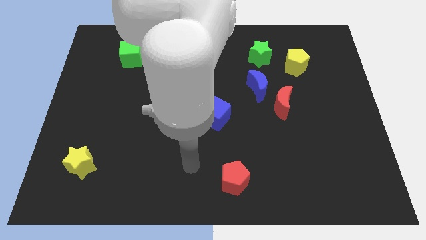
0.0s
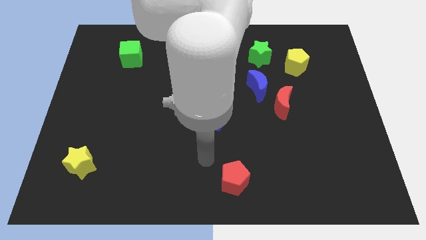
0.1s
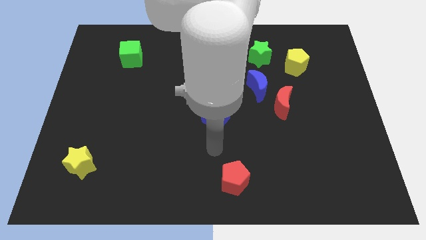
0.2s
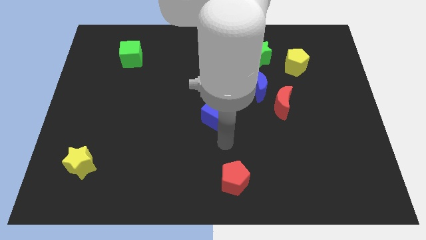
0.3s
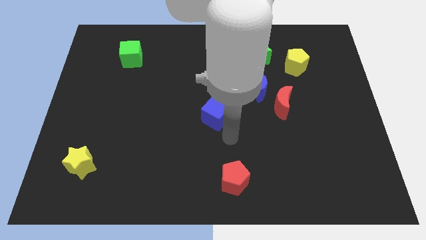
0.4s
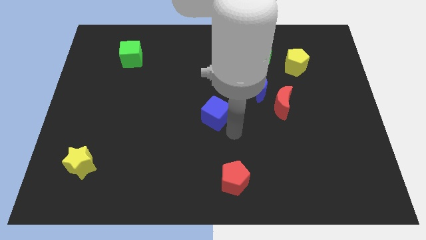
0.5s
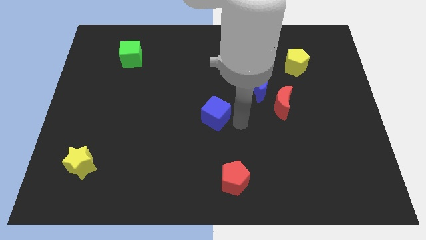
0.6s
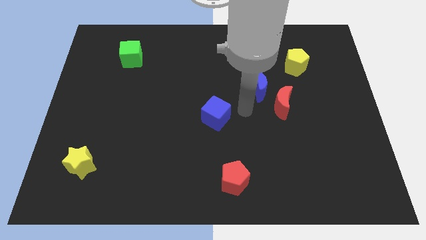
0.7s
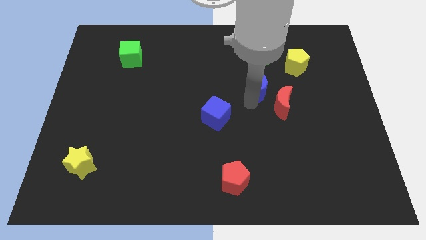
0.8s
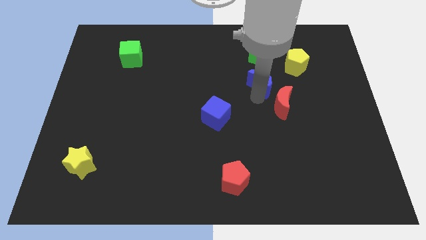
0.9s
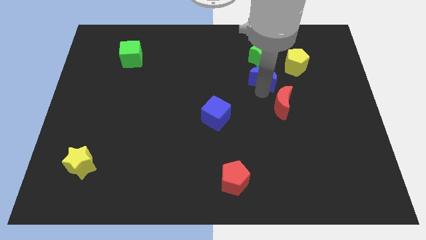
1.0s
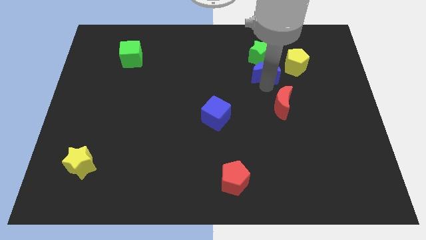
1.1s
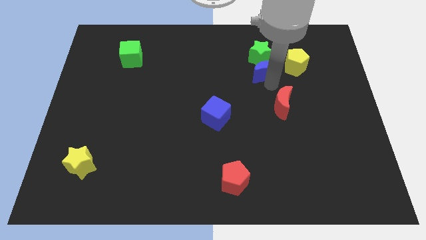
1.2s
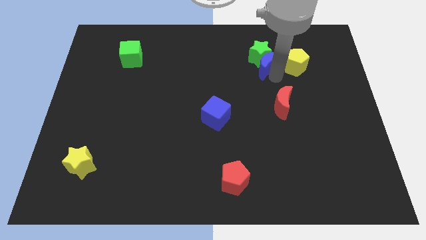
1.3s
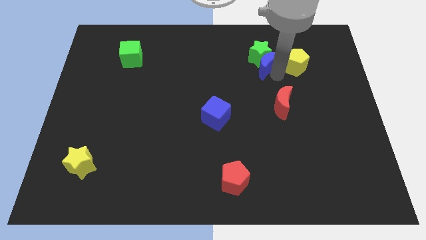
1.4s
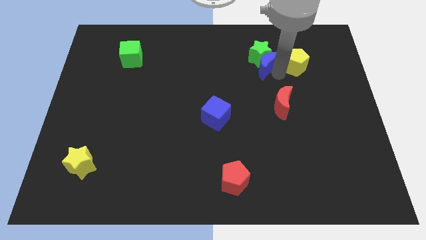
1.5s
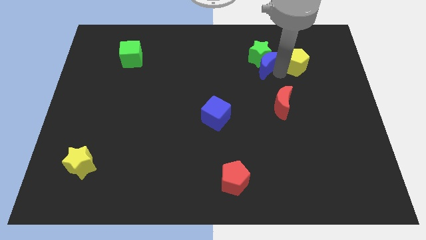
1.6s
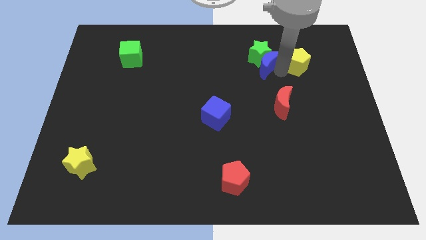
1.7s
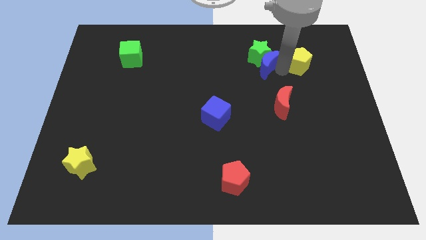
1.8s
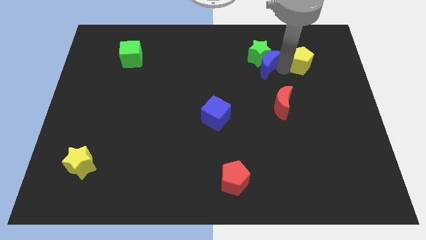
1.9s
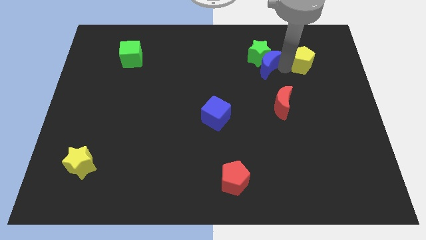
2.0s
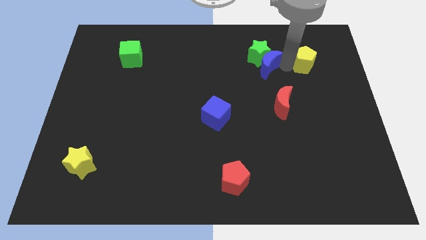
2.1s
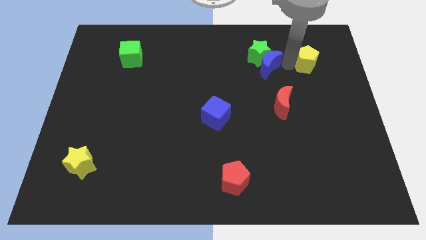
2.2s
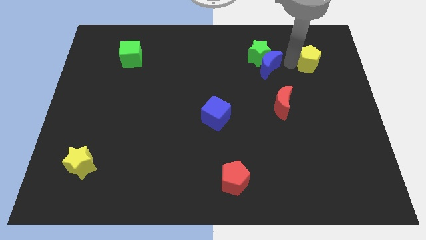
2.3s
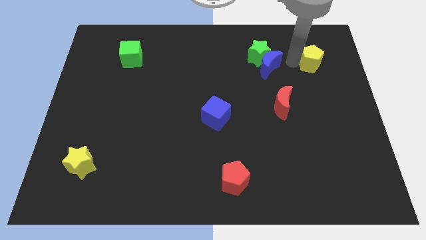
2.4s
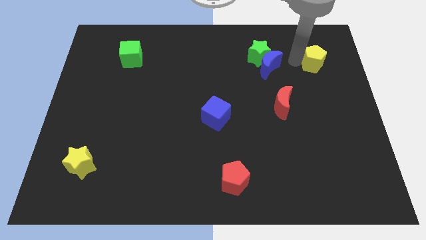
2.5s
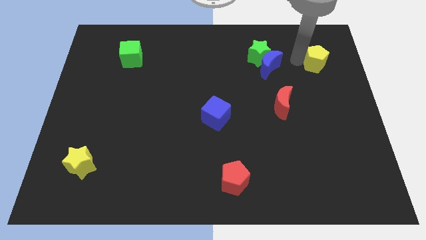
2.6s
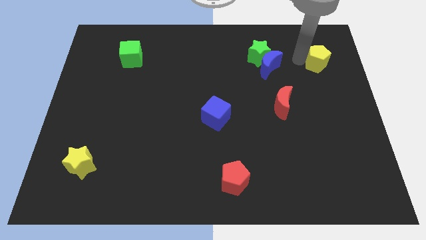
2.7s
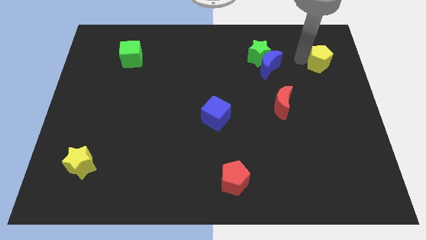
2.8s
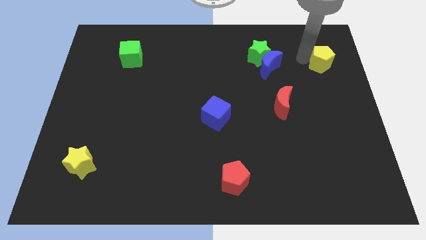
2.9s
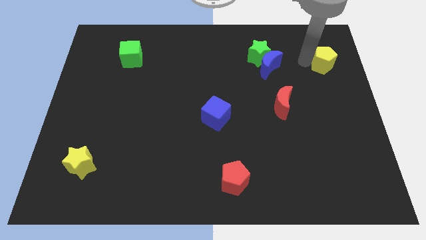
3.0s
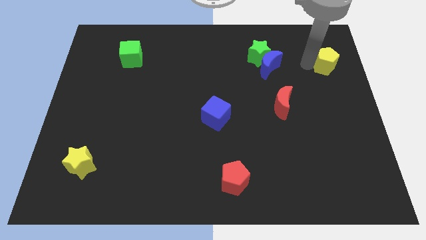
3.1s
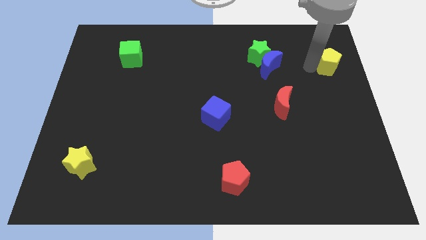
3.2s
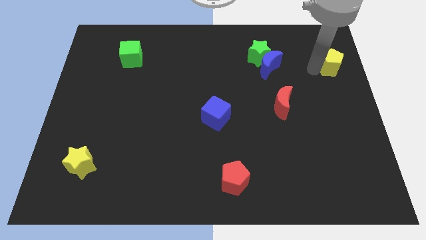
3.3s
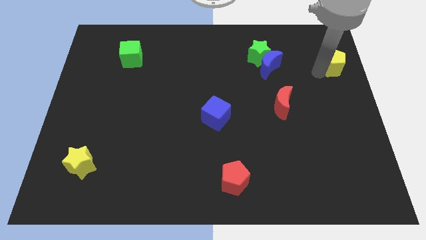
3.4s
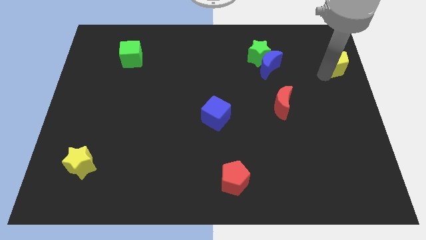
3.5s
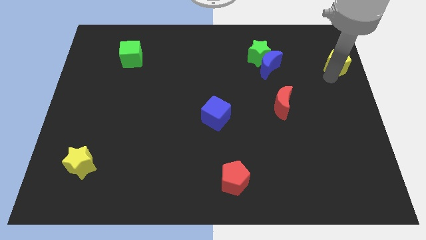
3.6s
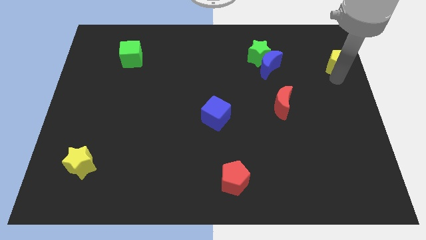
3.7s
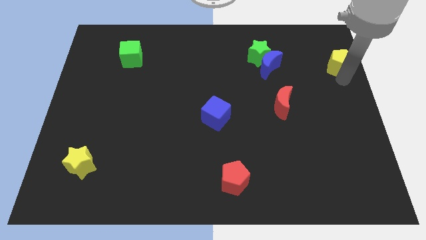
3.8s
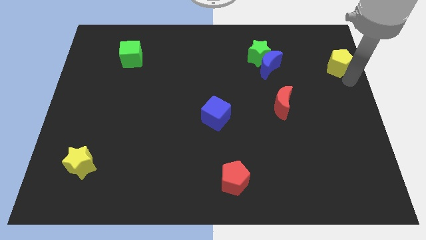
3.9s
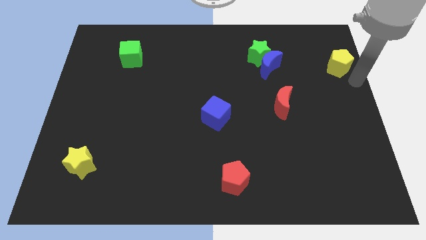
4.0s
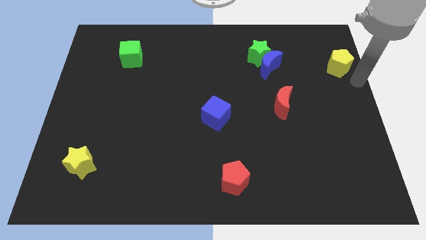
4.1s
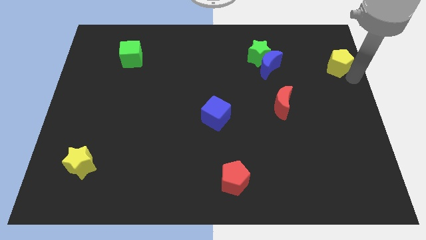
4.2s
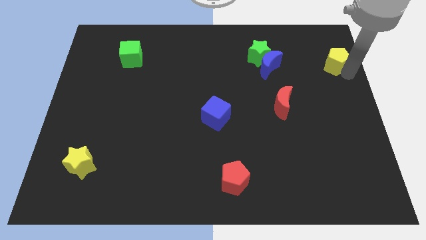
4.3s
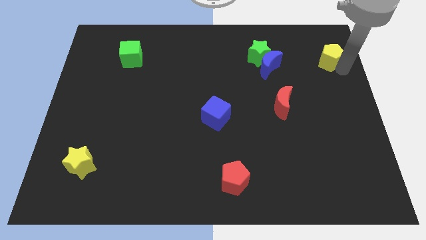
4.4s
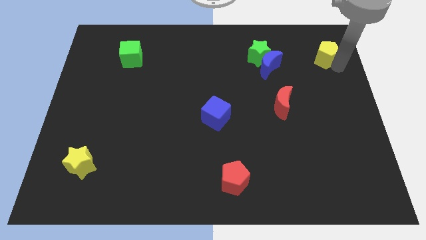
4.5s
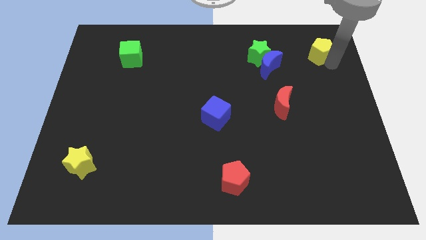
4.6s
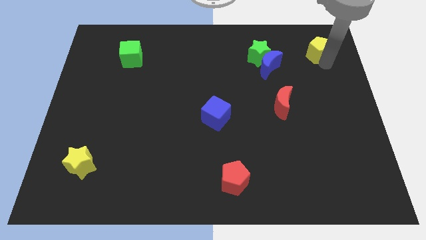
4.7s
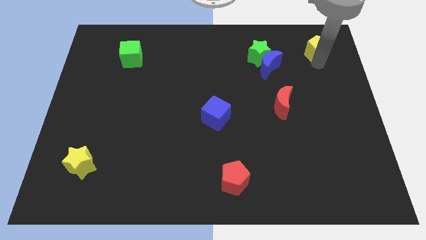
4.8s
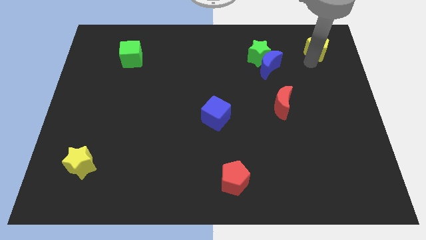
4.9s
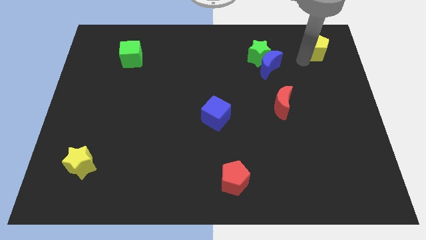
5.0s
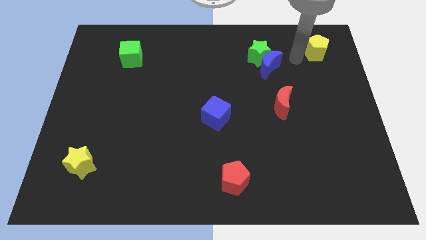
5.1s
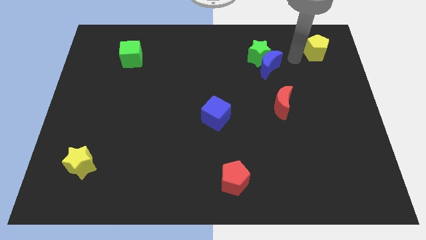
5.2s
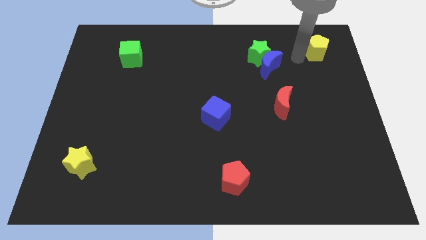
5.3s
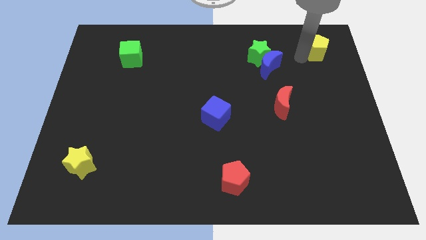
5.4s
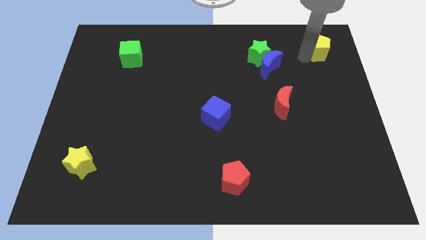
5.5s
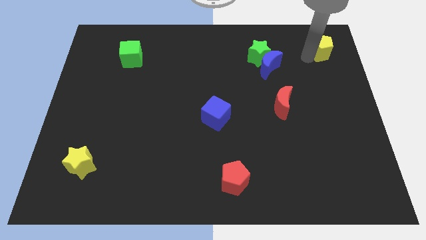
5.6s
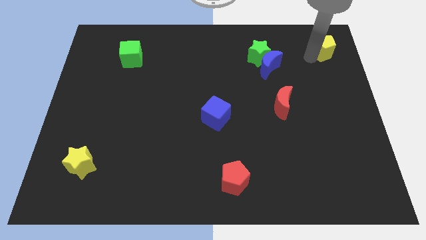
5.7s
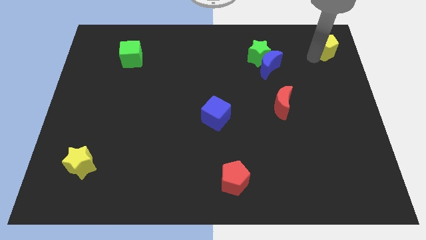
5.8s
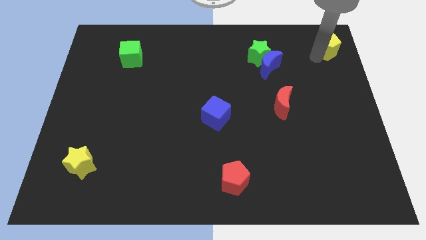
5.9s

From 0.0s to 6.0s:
push the yellow pentagon to the top right of the board
